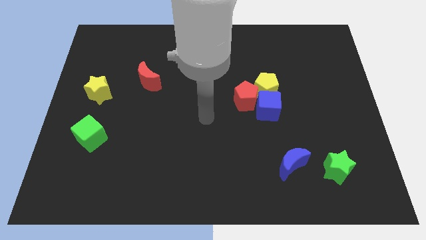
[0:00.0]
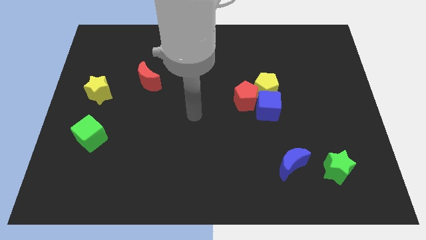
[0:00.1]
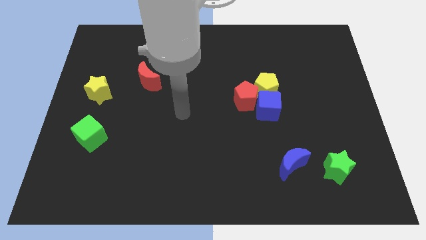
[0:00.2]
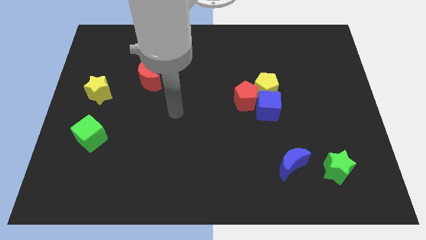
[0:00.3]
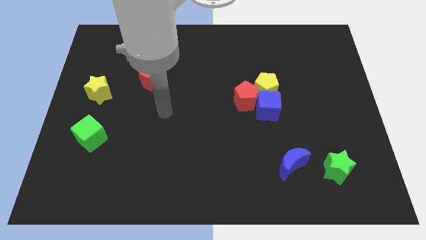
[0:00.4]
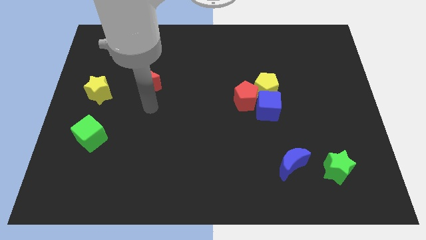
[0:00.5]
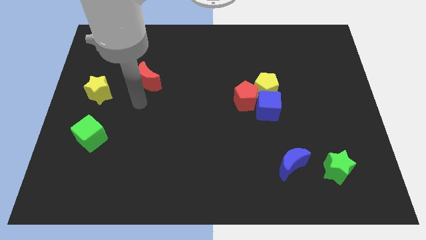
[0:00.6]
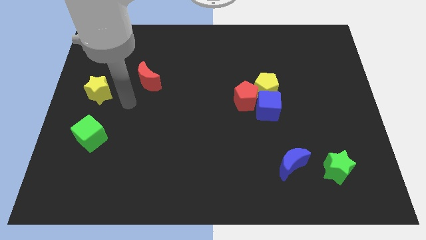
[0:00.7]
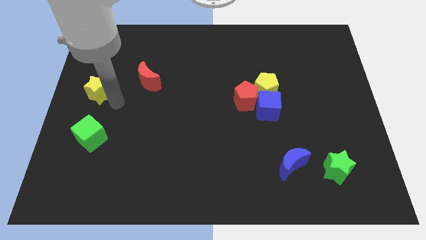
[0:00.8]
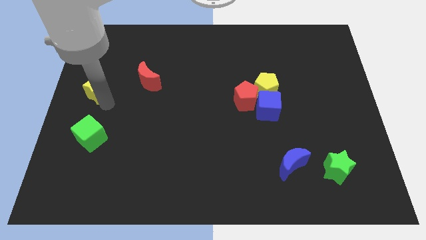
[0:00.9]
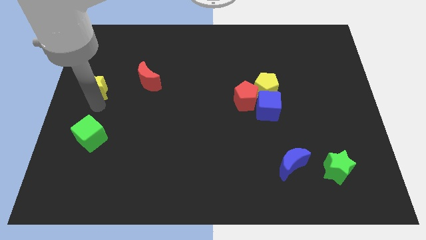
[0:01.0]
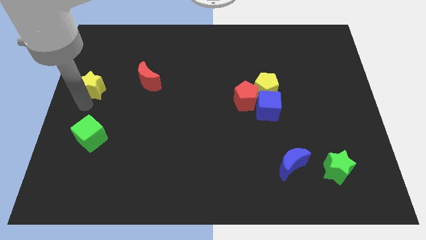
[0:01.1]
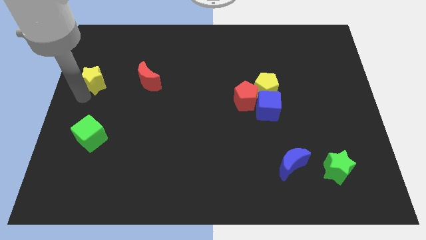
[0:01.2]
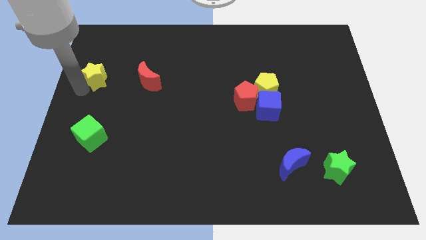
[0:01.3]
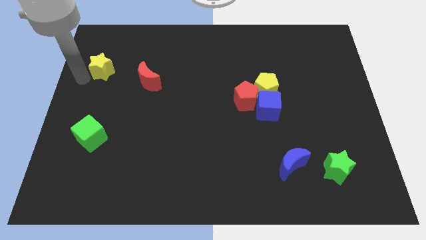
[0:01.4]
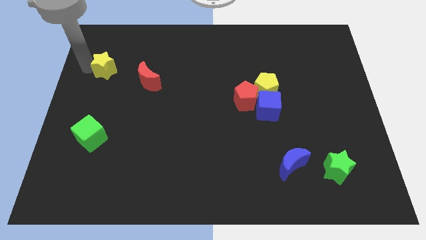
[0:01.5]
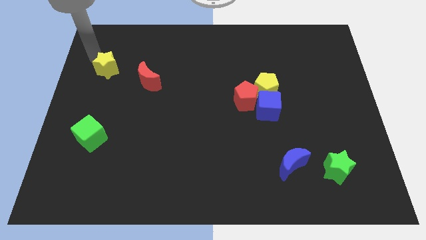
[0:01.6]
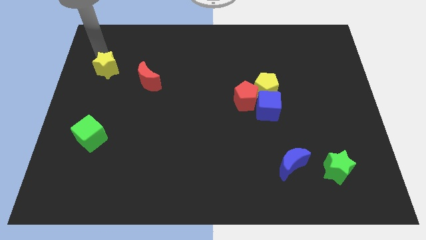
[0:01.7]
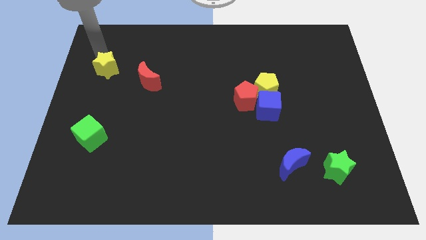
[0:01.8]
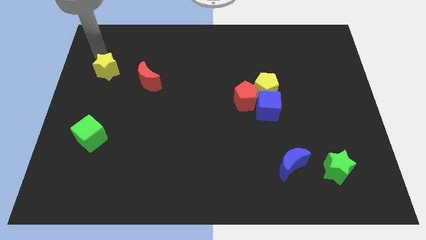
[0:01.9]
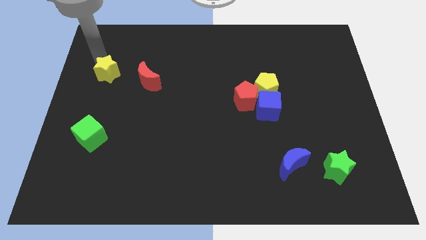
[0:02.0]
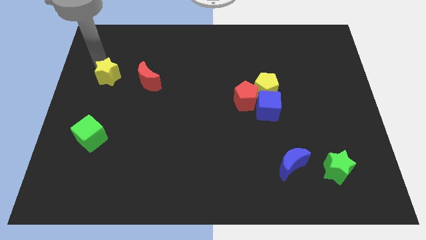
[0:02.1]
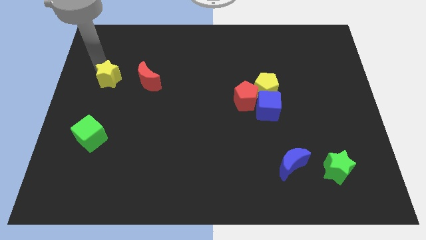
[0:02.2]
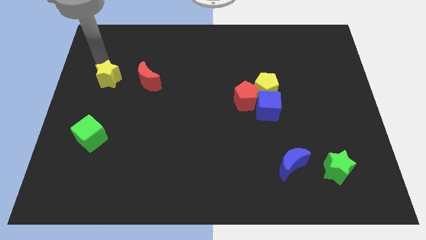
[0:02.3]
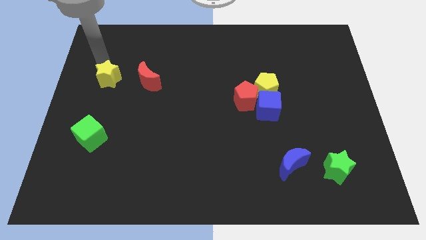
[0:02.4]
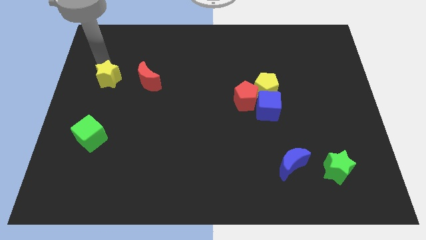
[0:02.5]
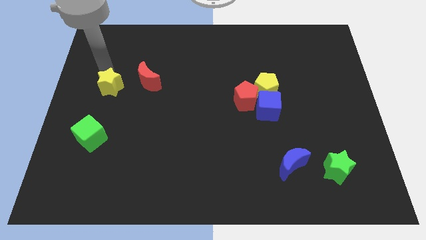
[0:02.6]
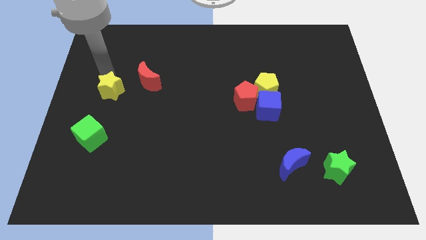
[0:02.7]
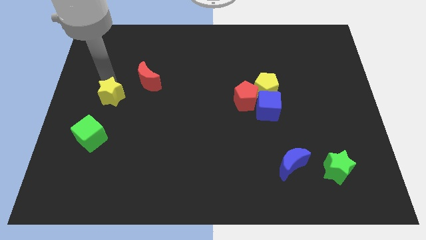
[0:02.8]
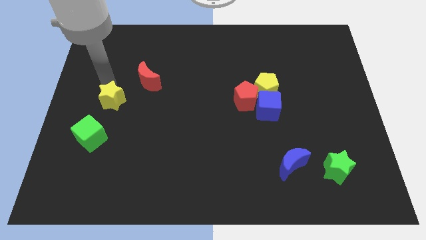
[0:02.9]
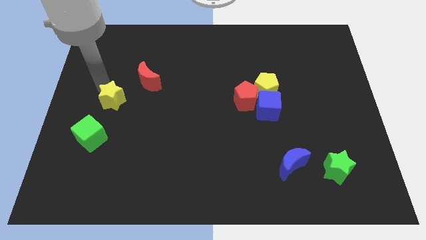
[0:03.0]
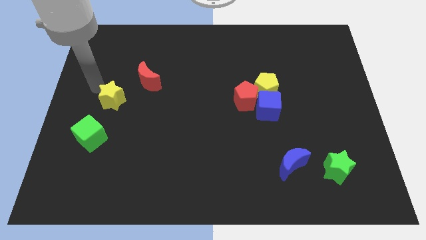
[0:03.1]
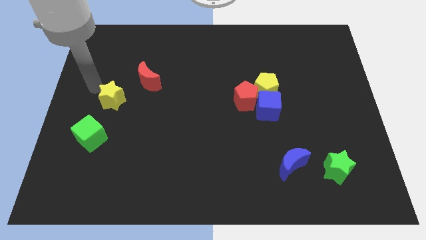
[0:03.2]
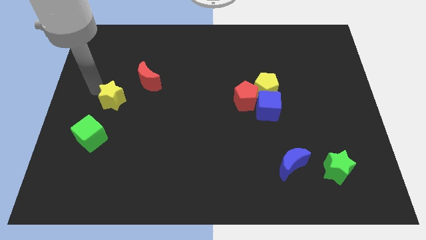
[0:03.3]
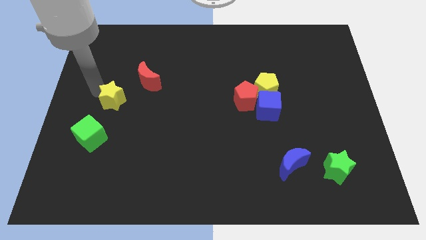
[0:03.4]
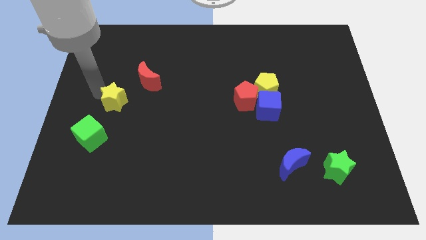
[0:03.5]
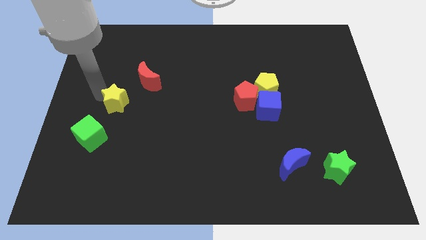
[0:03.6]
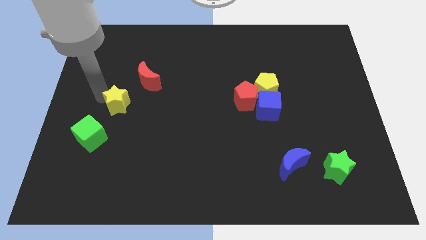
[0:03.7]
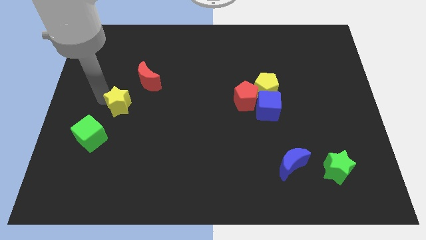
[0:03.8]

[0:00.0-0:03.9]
push the yellow star slightly downwards and then to the right

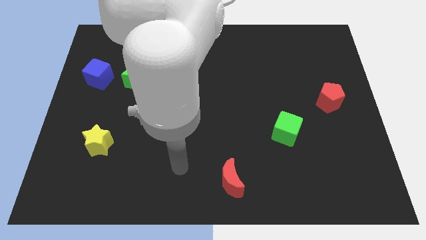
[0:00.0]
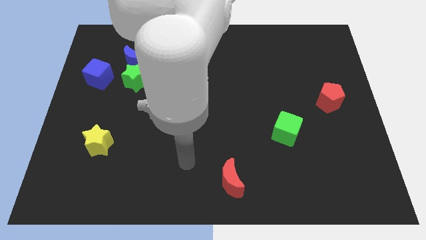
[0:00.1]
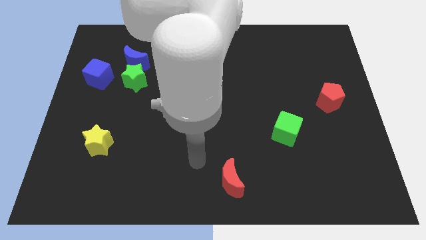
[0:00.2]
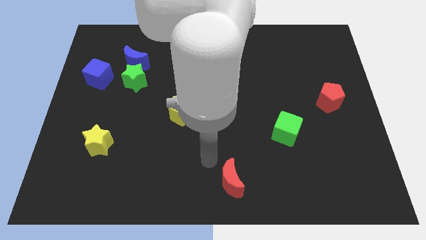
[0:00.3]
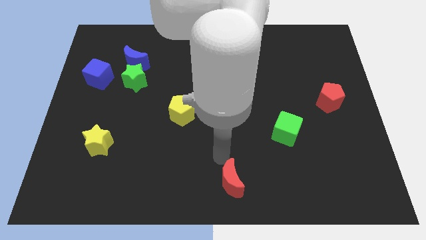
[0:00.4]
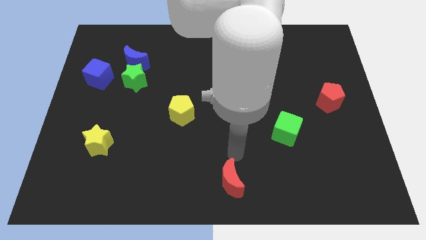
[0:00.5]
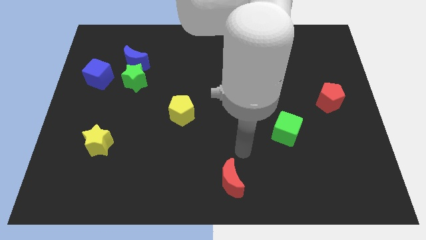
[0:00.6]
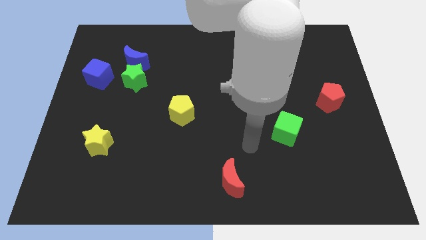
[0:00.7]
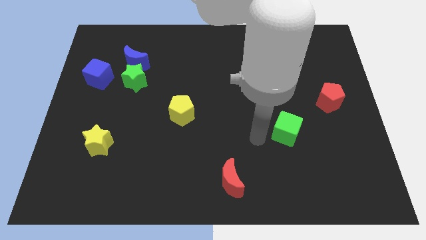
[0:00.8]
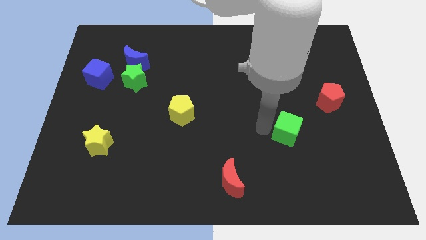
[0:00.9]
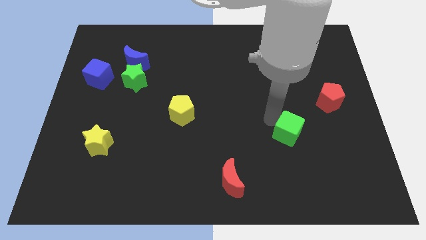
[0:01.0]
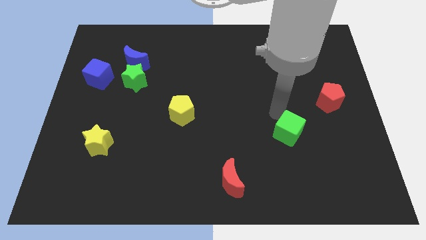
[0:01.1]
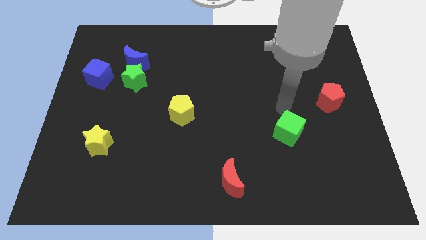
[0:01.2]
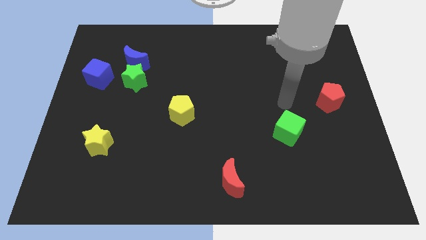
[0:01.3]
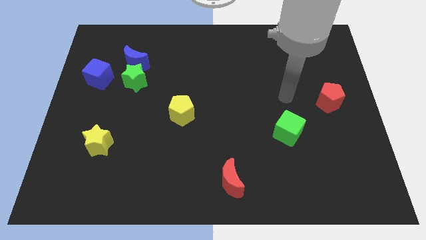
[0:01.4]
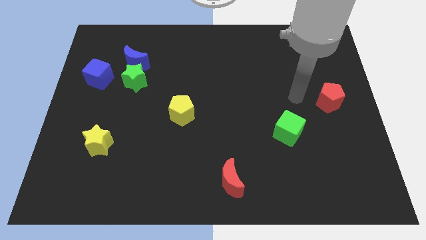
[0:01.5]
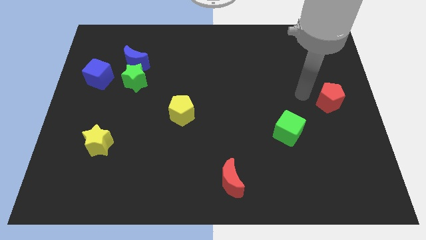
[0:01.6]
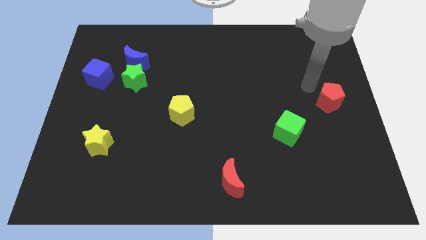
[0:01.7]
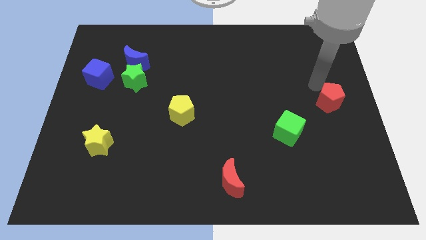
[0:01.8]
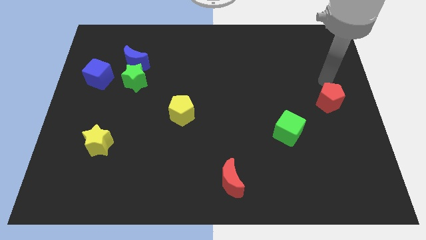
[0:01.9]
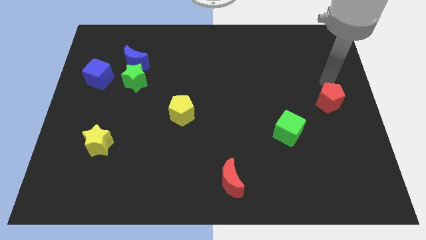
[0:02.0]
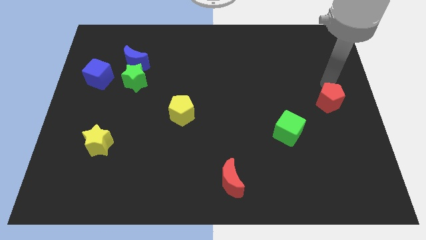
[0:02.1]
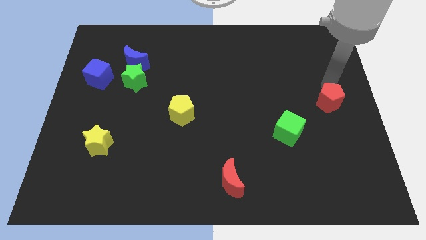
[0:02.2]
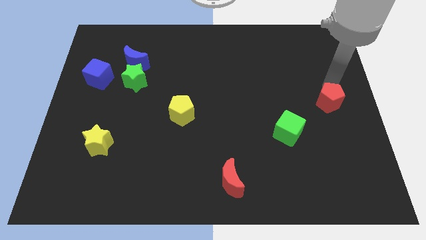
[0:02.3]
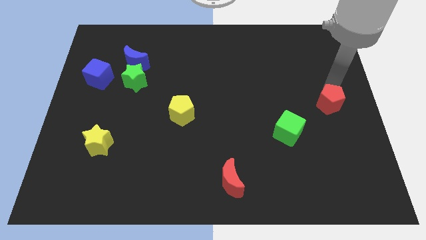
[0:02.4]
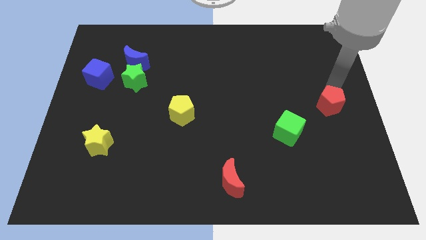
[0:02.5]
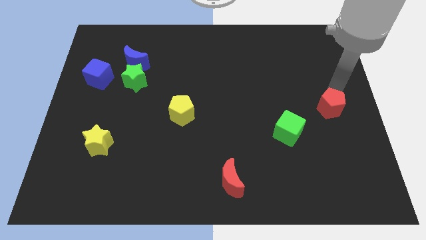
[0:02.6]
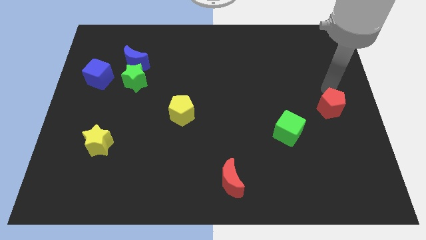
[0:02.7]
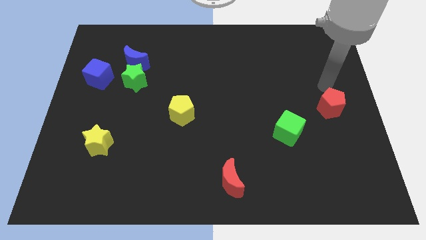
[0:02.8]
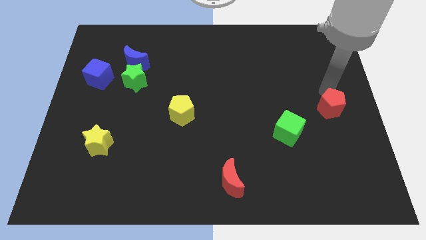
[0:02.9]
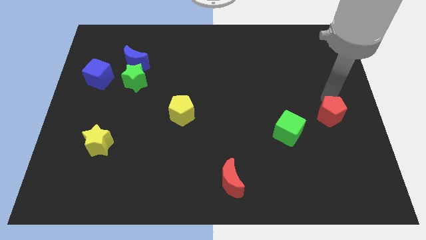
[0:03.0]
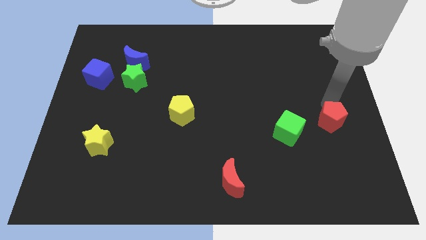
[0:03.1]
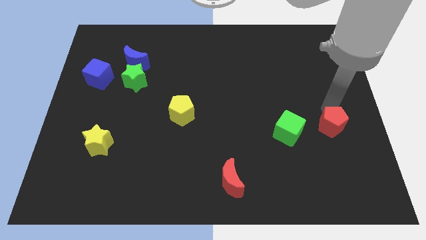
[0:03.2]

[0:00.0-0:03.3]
move the red pentagon a little down
